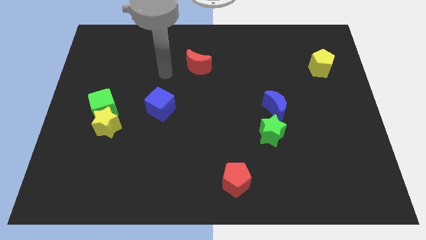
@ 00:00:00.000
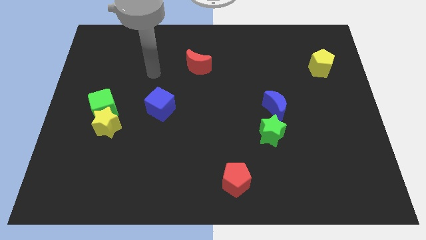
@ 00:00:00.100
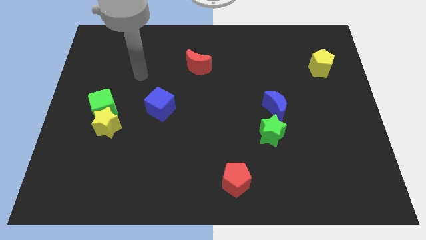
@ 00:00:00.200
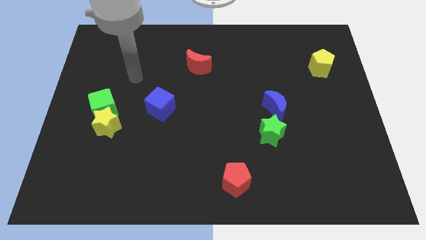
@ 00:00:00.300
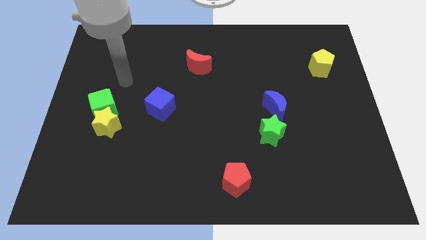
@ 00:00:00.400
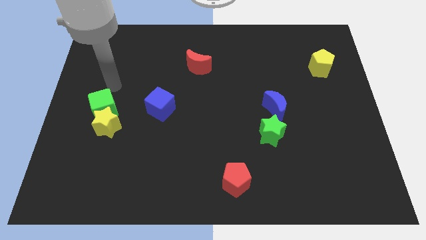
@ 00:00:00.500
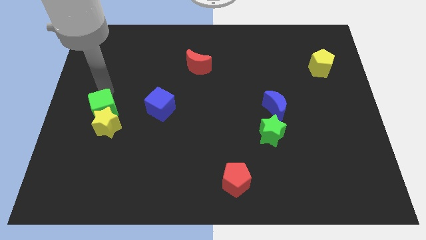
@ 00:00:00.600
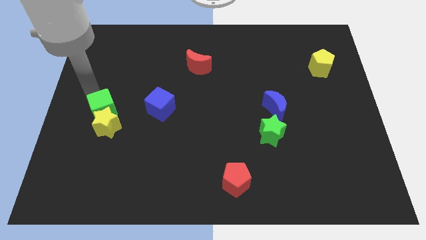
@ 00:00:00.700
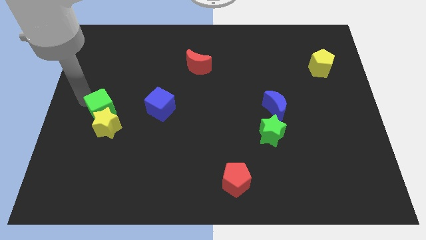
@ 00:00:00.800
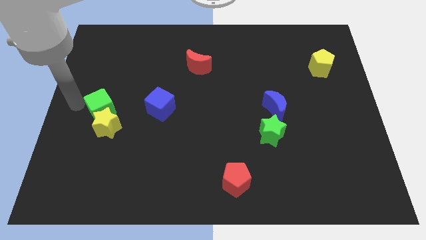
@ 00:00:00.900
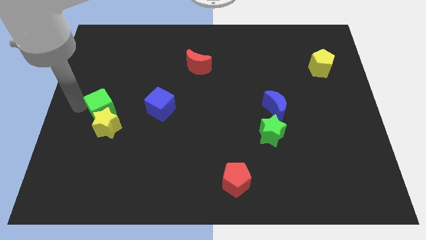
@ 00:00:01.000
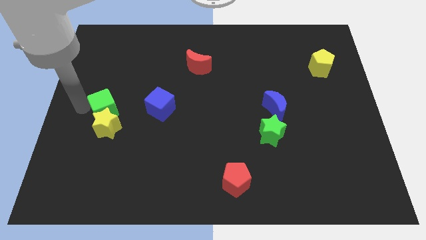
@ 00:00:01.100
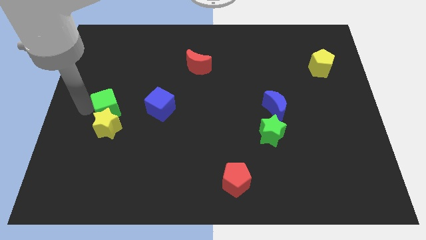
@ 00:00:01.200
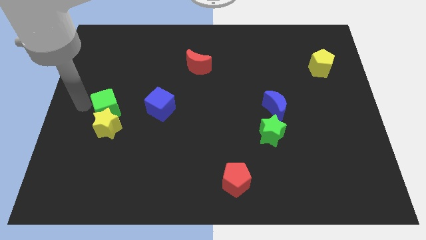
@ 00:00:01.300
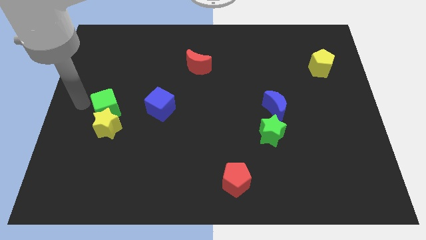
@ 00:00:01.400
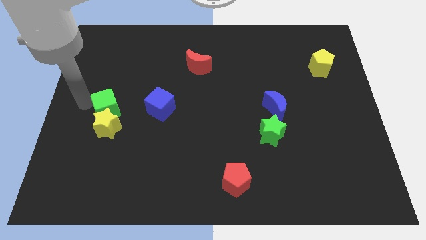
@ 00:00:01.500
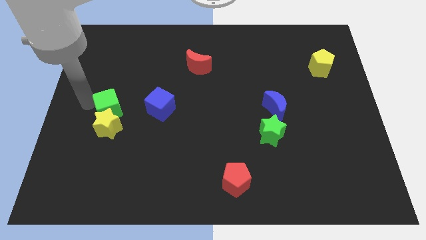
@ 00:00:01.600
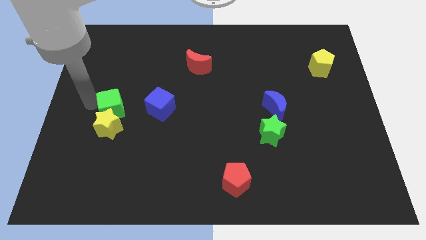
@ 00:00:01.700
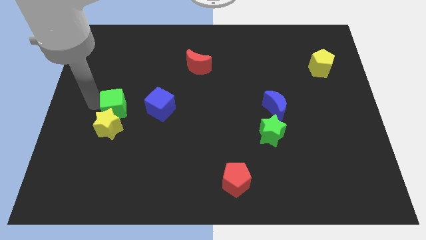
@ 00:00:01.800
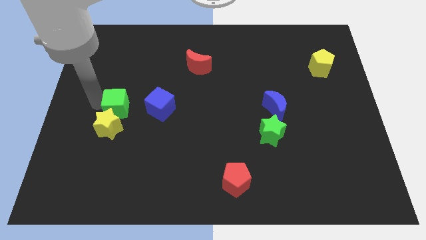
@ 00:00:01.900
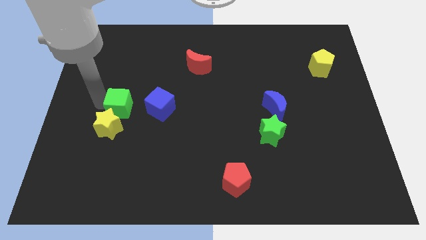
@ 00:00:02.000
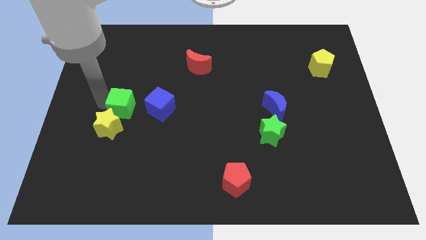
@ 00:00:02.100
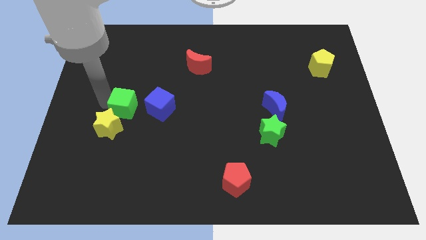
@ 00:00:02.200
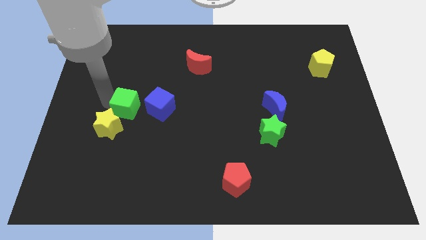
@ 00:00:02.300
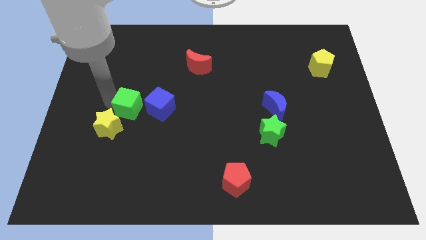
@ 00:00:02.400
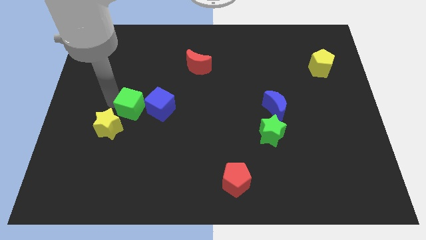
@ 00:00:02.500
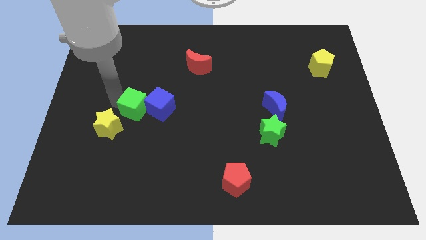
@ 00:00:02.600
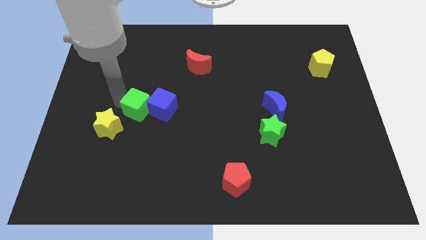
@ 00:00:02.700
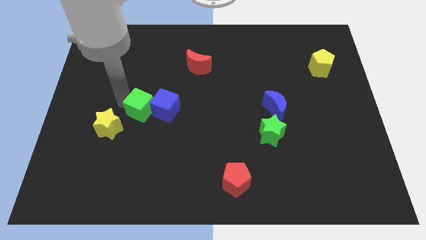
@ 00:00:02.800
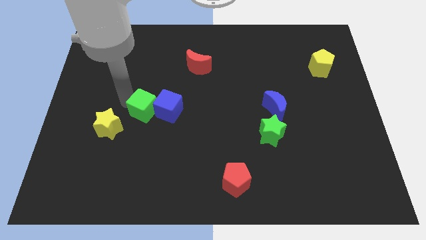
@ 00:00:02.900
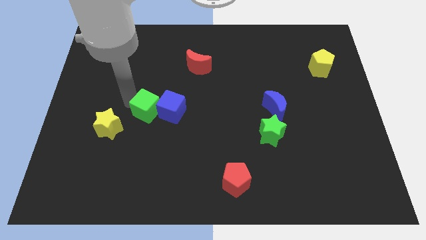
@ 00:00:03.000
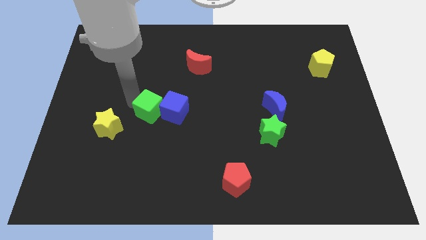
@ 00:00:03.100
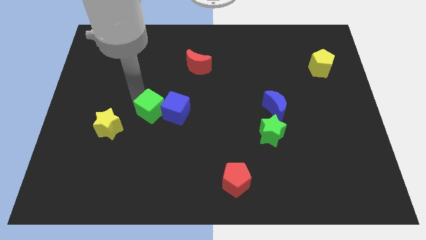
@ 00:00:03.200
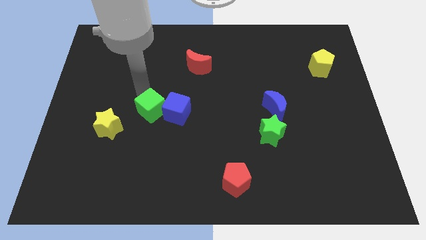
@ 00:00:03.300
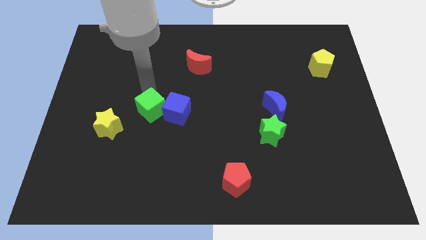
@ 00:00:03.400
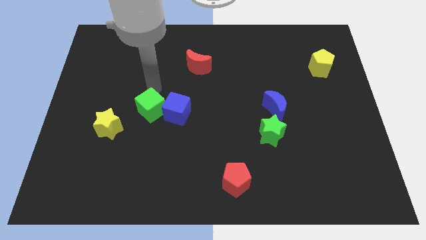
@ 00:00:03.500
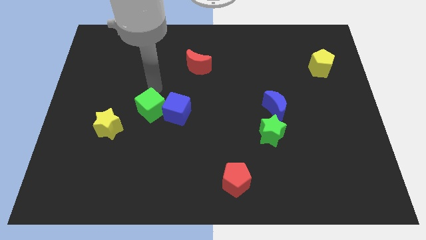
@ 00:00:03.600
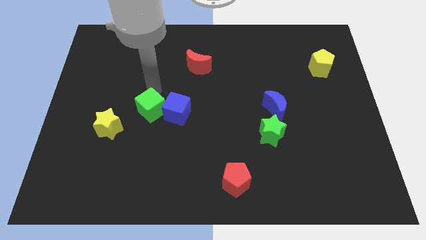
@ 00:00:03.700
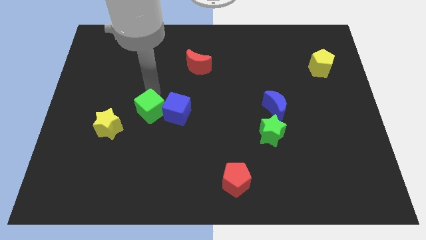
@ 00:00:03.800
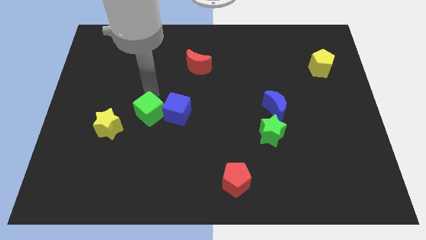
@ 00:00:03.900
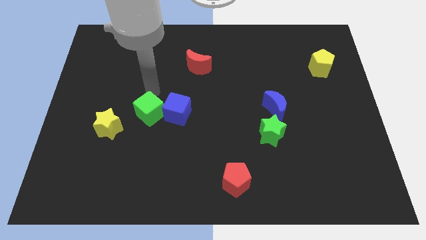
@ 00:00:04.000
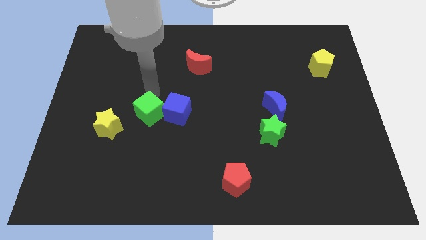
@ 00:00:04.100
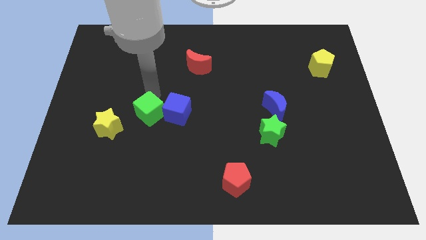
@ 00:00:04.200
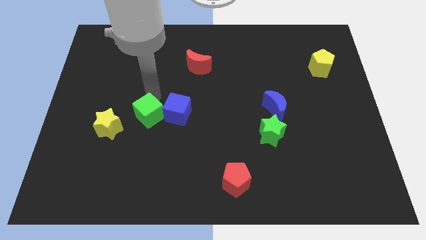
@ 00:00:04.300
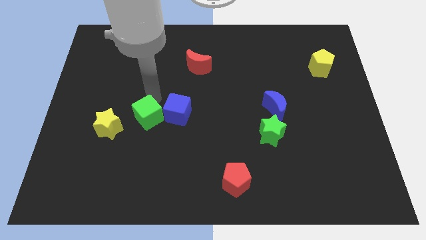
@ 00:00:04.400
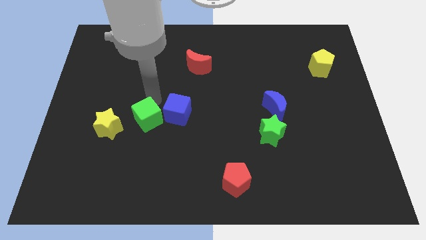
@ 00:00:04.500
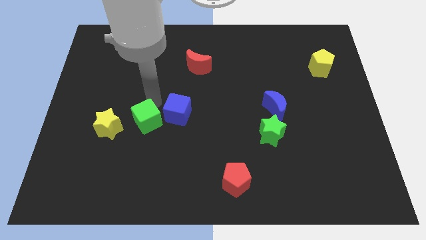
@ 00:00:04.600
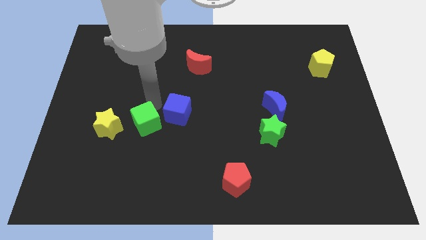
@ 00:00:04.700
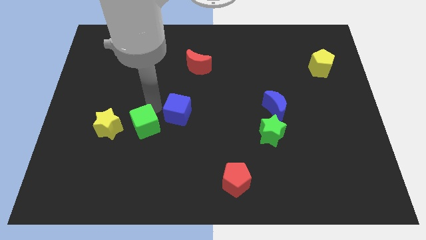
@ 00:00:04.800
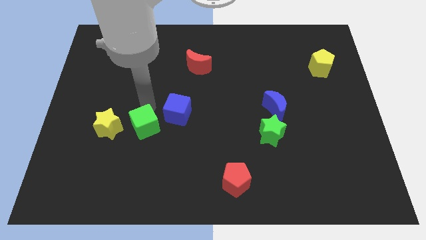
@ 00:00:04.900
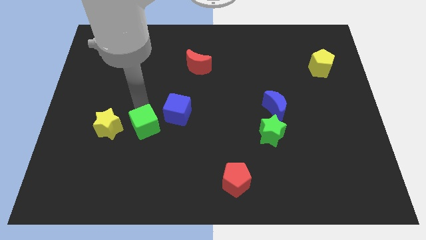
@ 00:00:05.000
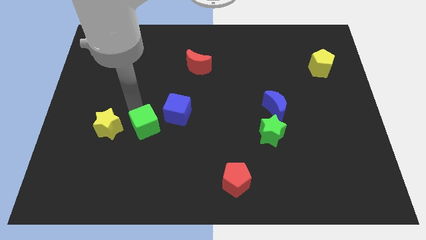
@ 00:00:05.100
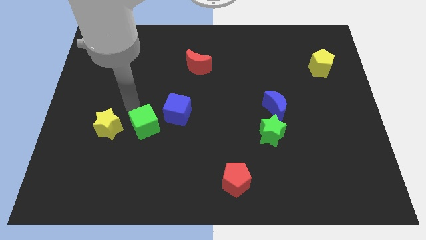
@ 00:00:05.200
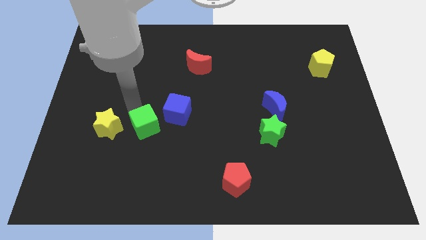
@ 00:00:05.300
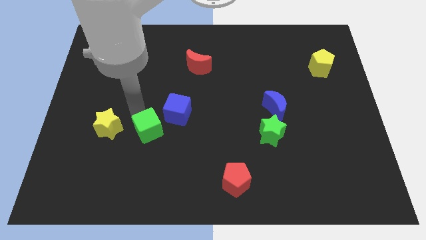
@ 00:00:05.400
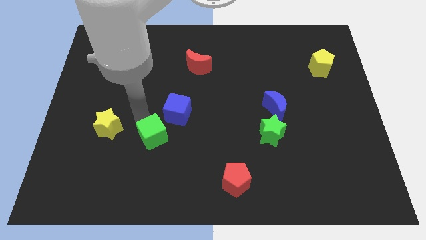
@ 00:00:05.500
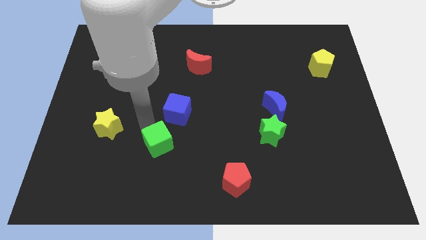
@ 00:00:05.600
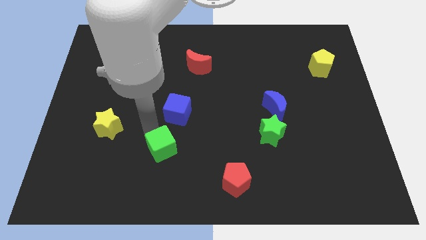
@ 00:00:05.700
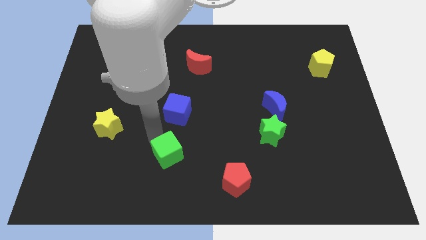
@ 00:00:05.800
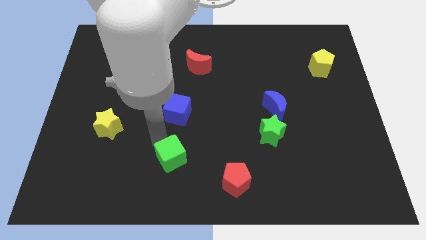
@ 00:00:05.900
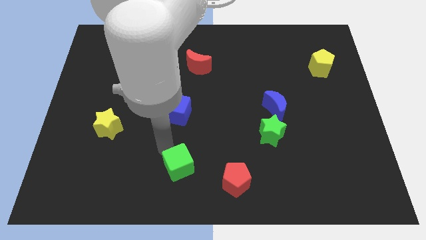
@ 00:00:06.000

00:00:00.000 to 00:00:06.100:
slide the green cube to the bottom side

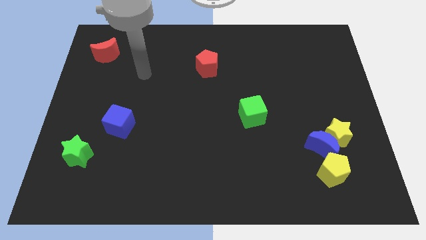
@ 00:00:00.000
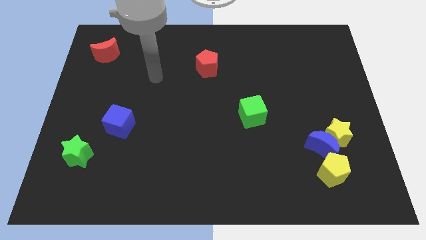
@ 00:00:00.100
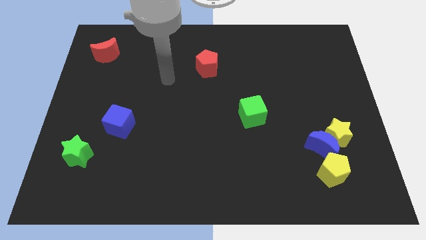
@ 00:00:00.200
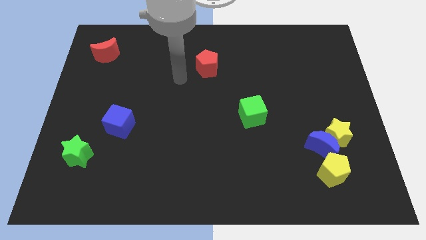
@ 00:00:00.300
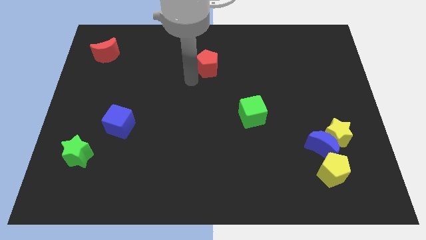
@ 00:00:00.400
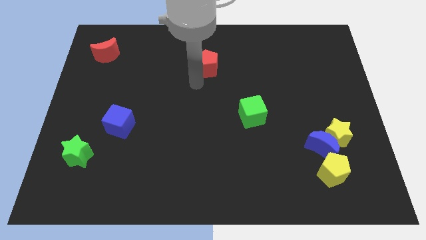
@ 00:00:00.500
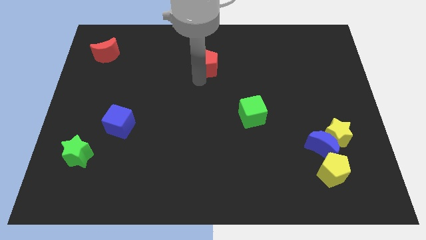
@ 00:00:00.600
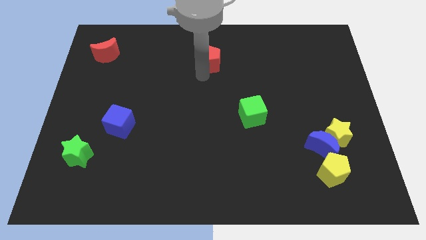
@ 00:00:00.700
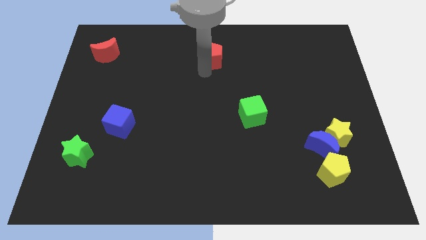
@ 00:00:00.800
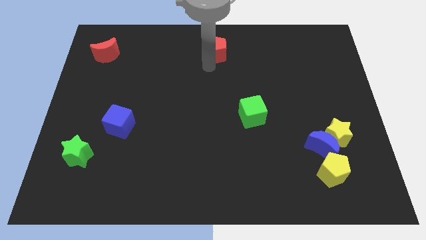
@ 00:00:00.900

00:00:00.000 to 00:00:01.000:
move the red pentagon to the towards your base
